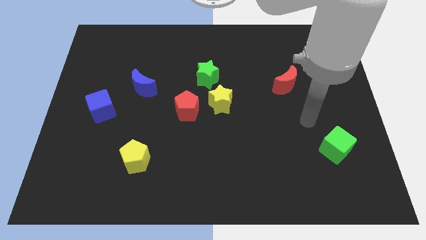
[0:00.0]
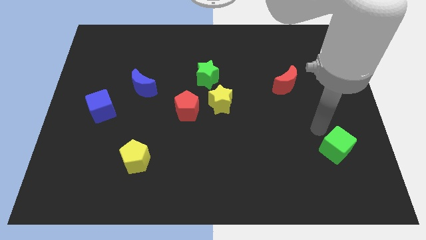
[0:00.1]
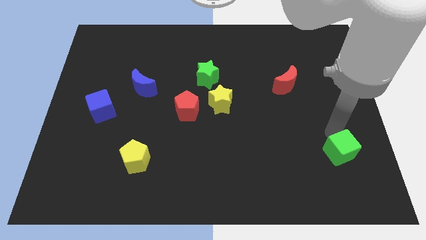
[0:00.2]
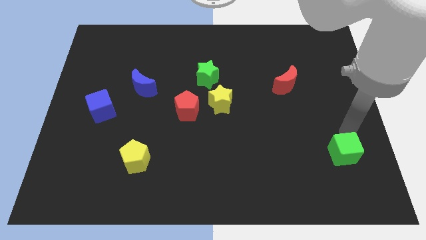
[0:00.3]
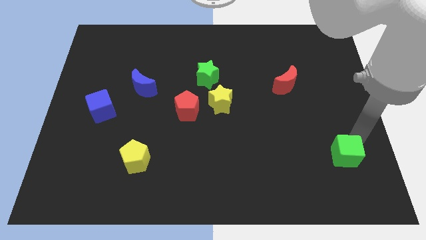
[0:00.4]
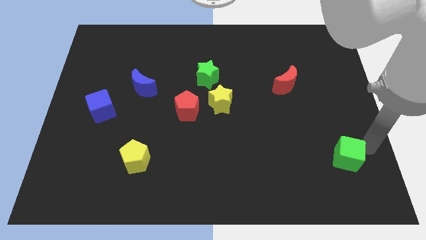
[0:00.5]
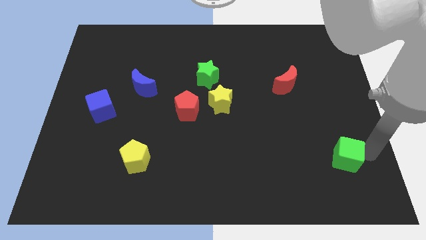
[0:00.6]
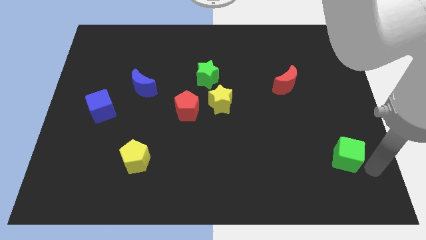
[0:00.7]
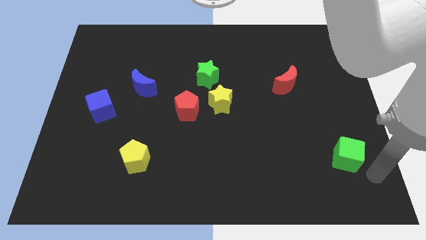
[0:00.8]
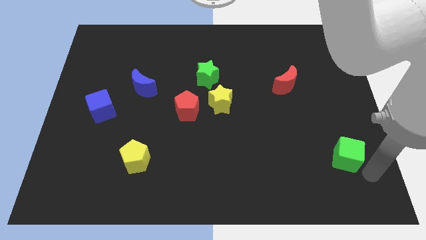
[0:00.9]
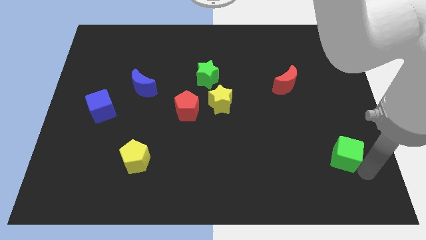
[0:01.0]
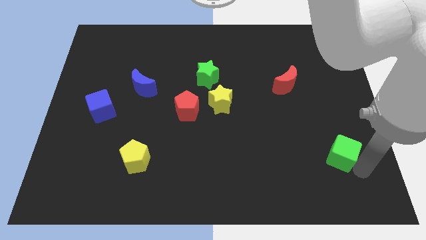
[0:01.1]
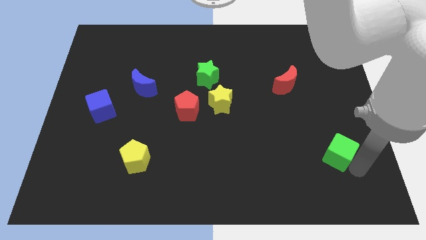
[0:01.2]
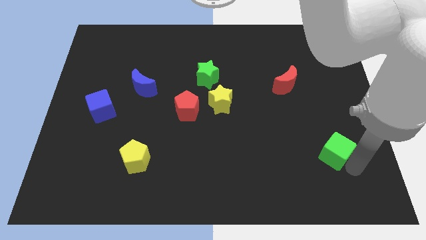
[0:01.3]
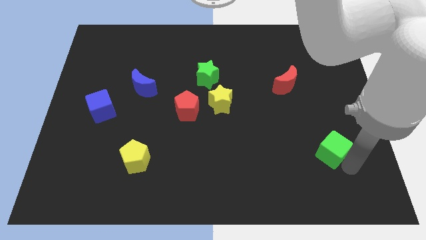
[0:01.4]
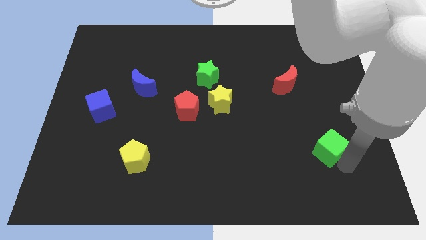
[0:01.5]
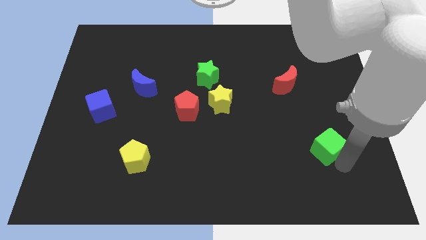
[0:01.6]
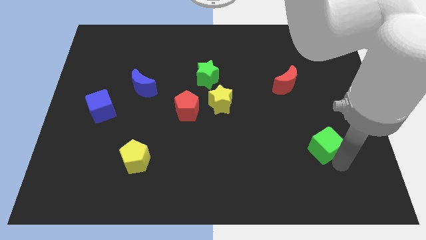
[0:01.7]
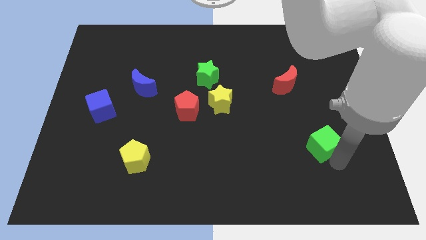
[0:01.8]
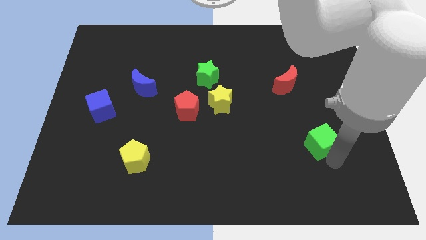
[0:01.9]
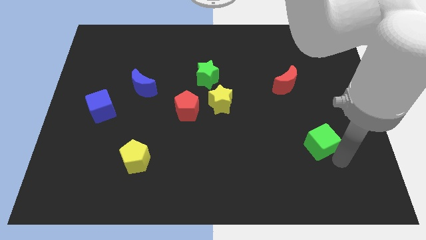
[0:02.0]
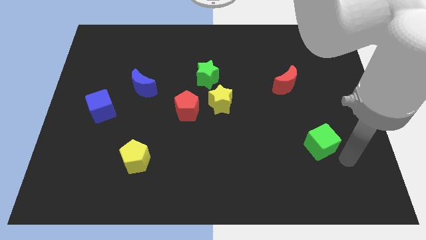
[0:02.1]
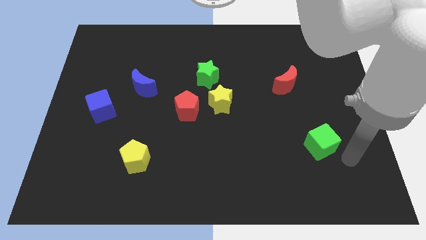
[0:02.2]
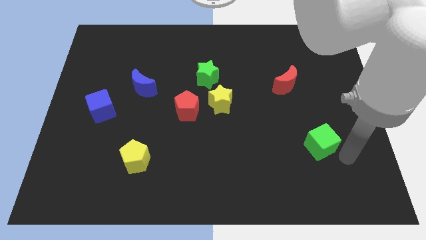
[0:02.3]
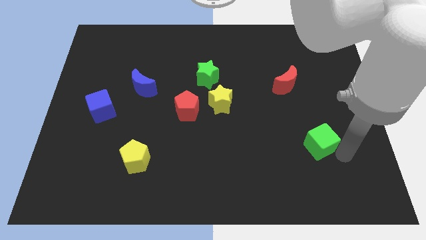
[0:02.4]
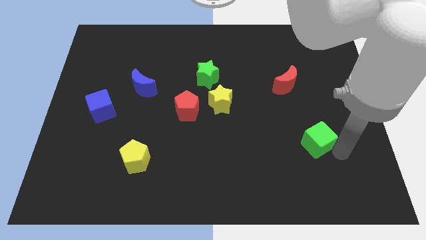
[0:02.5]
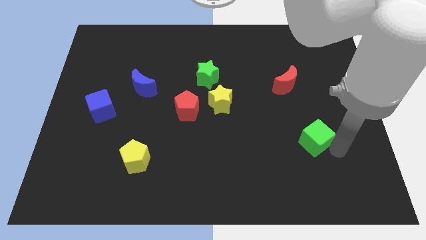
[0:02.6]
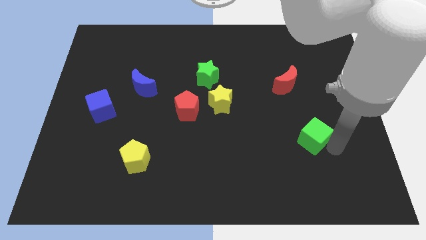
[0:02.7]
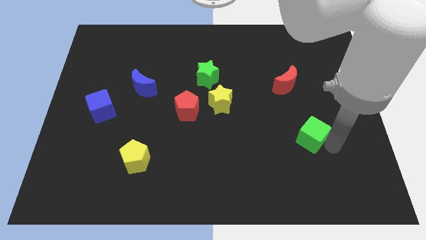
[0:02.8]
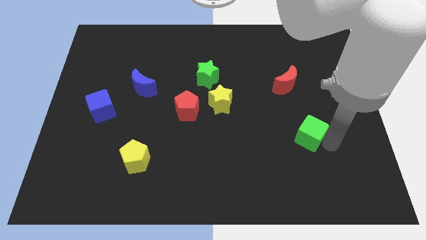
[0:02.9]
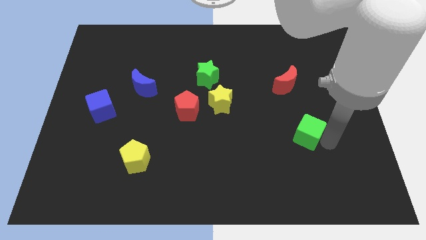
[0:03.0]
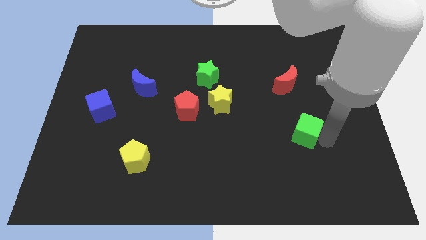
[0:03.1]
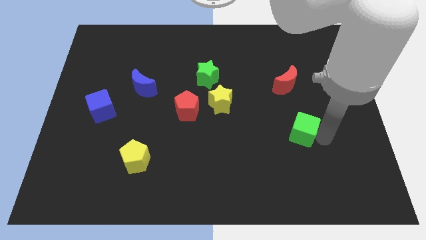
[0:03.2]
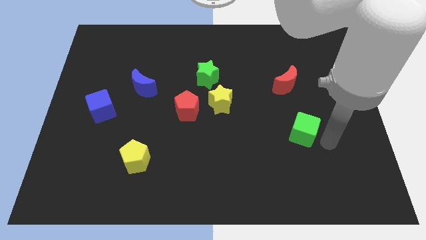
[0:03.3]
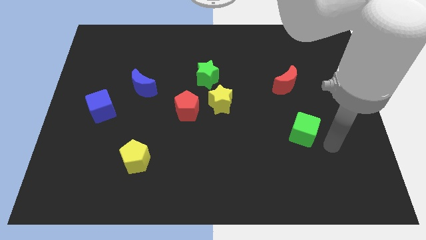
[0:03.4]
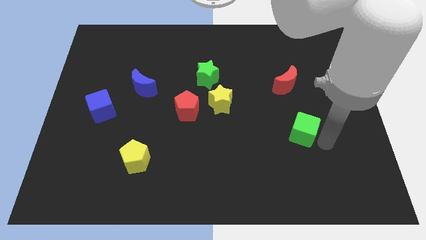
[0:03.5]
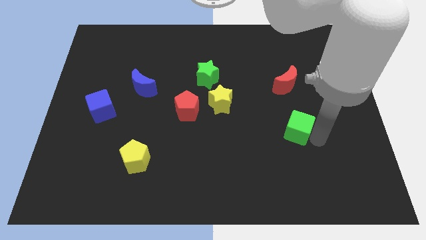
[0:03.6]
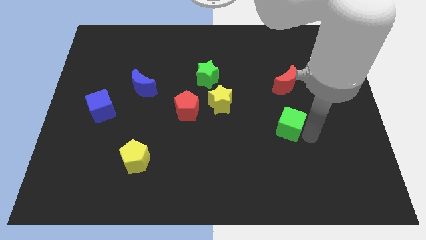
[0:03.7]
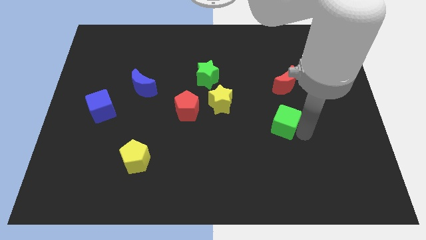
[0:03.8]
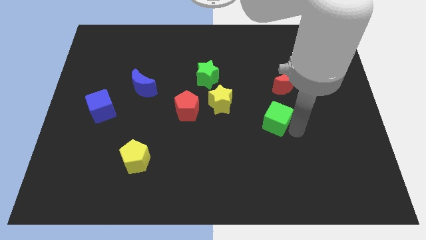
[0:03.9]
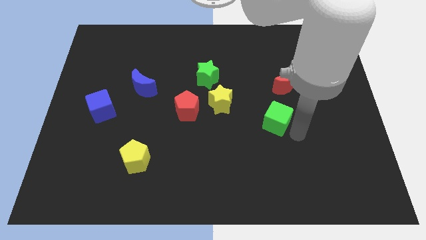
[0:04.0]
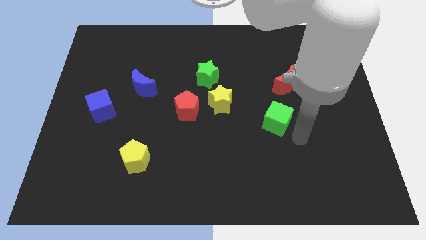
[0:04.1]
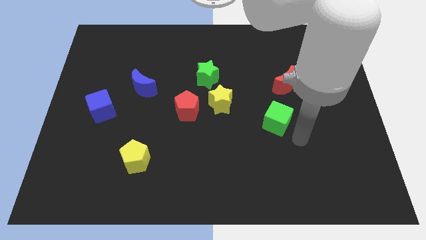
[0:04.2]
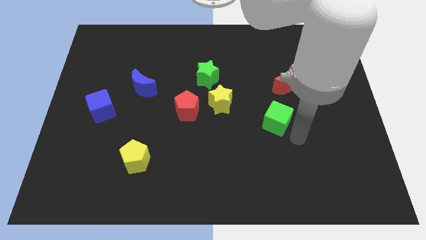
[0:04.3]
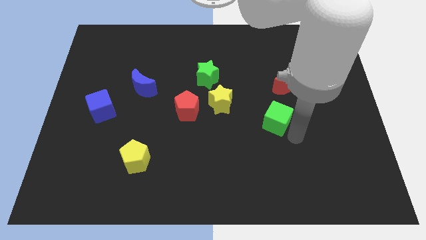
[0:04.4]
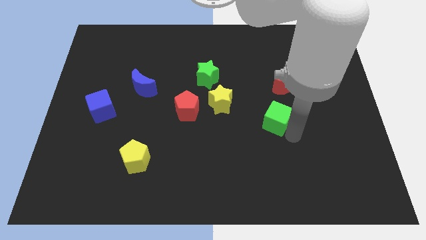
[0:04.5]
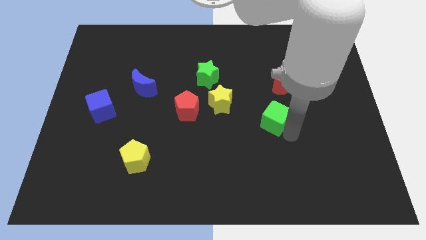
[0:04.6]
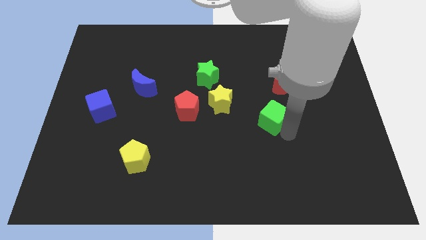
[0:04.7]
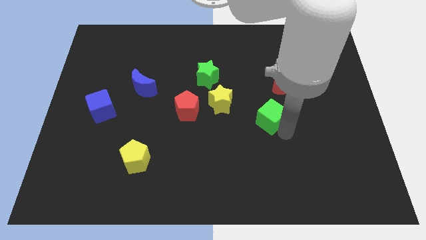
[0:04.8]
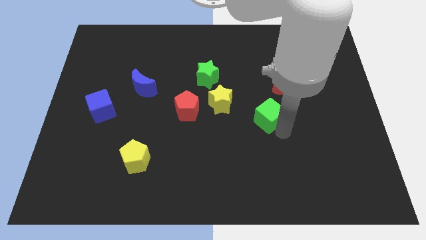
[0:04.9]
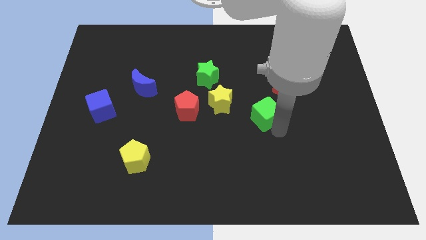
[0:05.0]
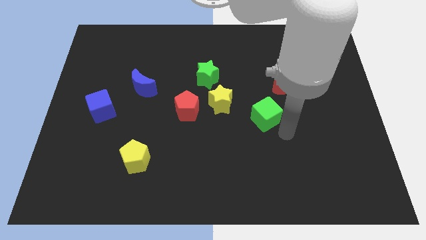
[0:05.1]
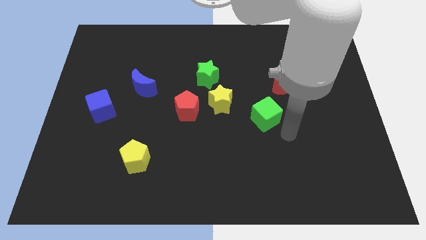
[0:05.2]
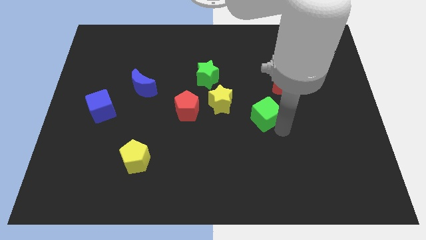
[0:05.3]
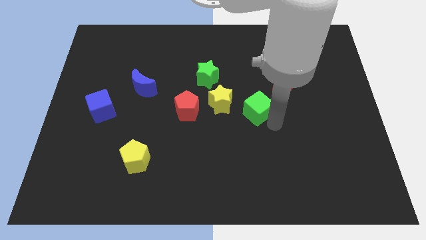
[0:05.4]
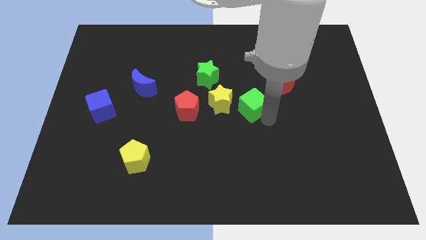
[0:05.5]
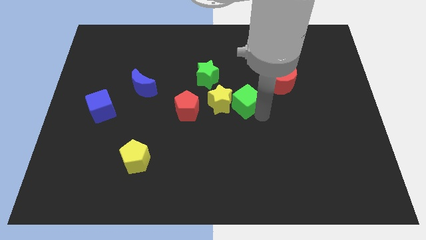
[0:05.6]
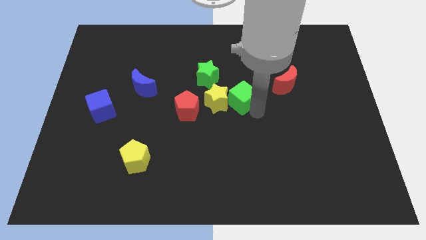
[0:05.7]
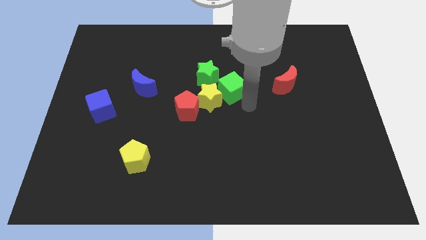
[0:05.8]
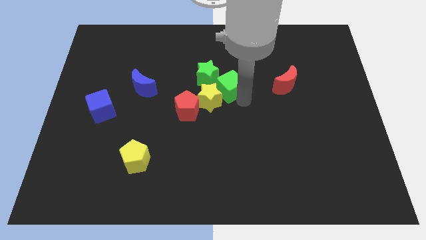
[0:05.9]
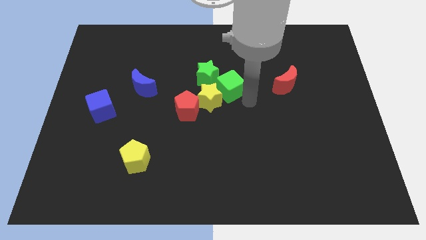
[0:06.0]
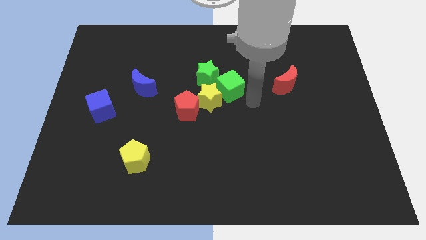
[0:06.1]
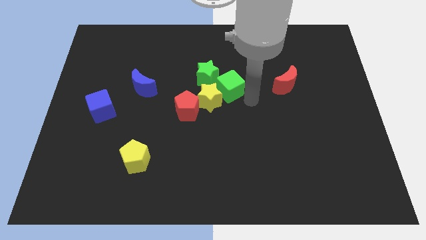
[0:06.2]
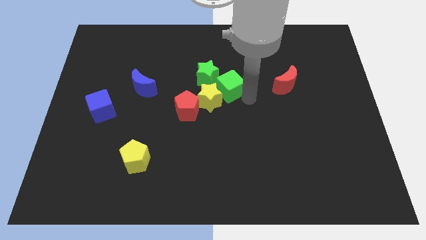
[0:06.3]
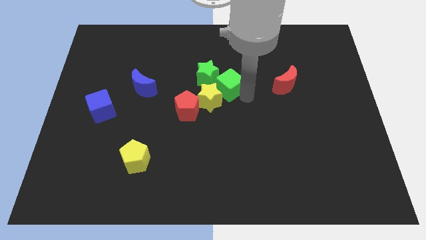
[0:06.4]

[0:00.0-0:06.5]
put the green cube to the green star

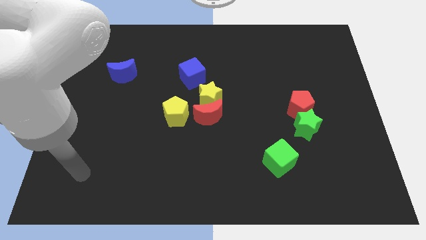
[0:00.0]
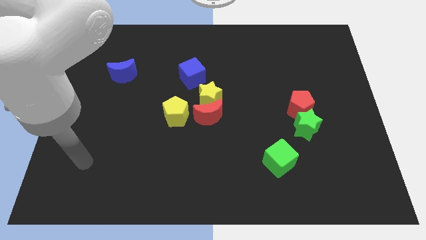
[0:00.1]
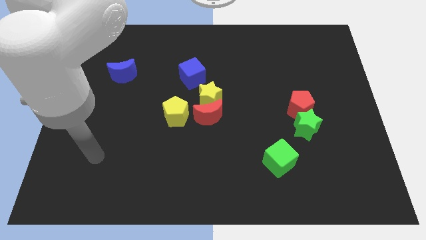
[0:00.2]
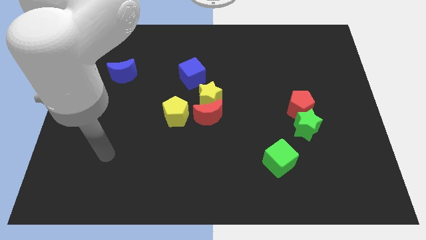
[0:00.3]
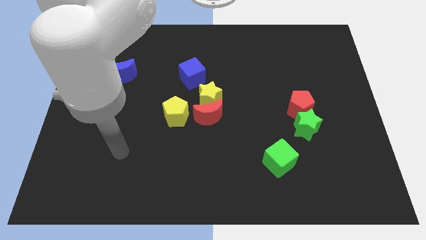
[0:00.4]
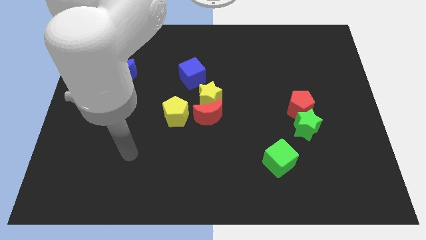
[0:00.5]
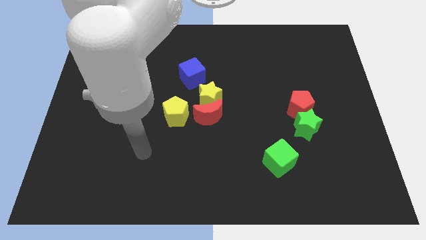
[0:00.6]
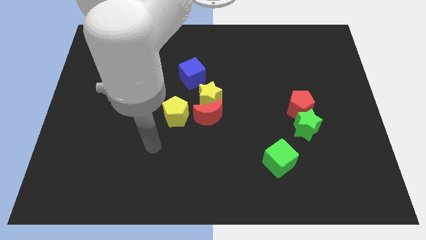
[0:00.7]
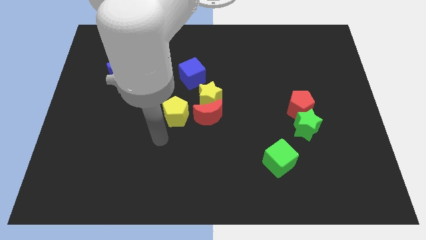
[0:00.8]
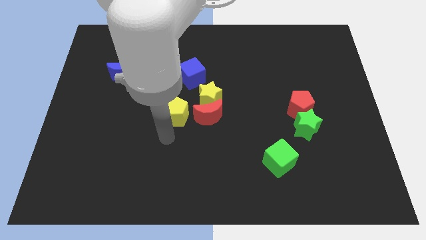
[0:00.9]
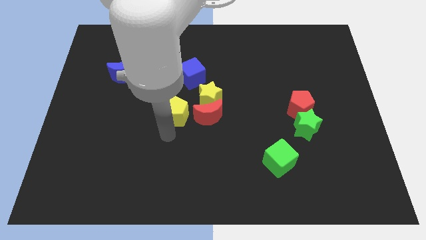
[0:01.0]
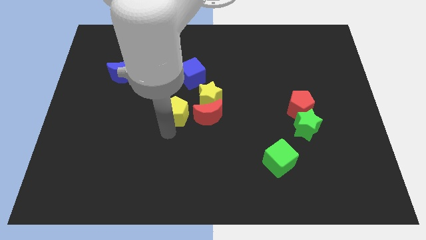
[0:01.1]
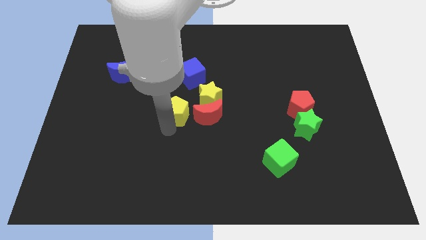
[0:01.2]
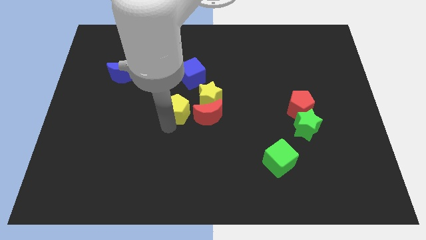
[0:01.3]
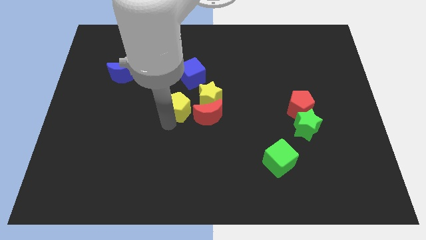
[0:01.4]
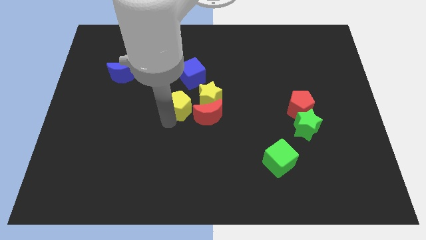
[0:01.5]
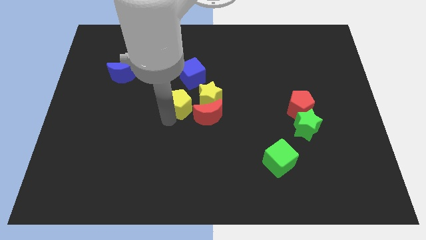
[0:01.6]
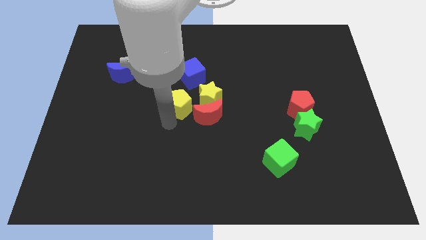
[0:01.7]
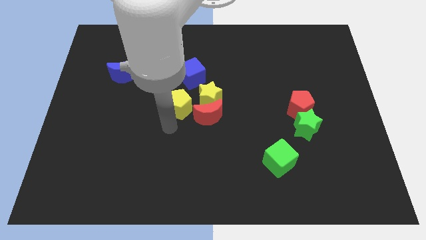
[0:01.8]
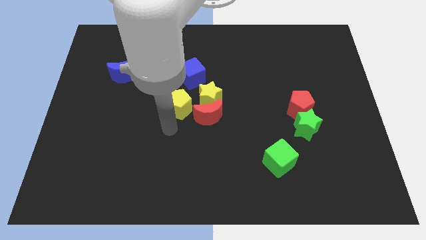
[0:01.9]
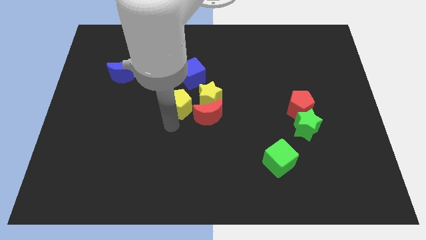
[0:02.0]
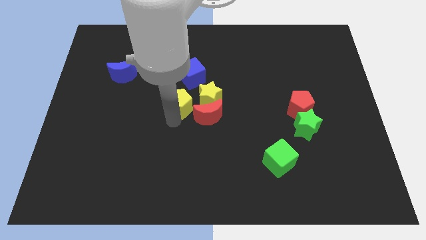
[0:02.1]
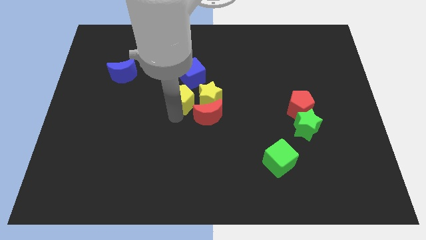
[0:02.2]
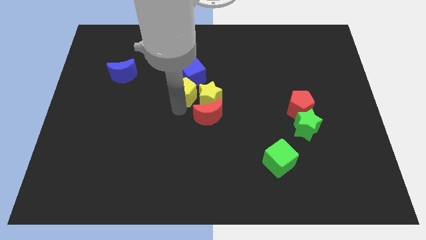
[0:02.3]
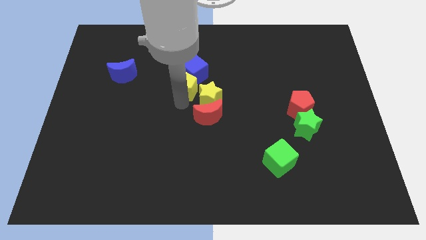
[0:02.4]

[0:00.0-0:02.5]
slide the yellow pentagon next to the blue cube
